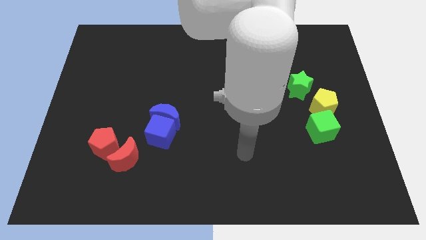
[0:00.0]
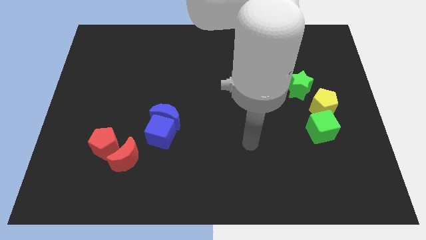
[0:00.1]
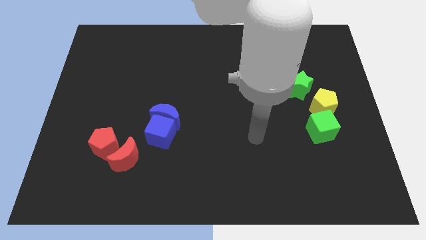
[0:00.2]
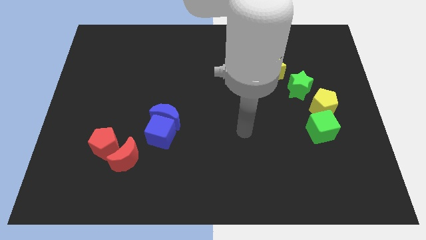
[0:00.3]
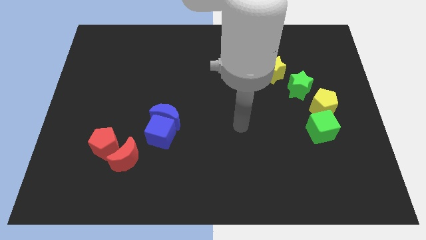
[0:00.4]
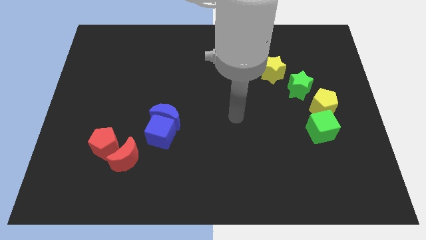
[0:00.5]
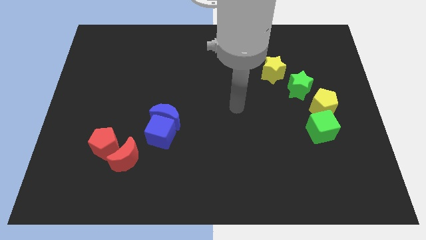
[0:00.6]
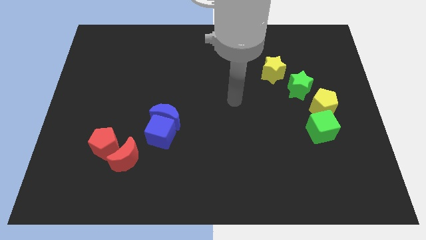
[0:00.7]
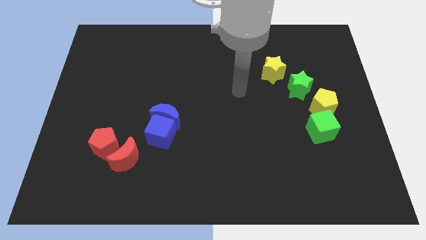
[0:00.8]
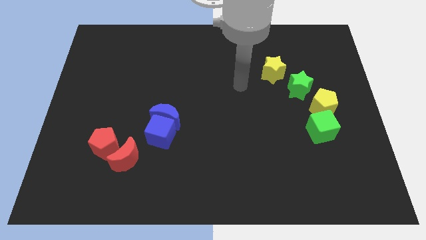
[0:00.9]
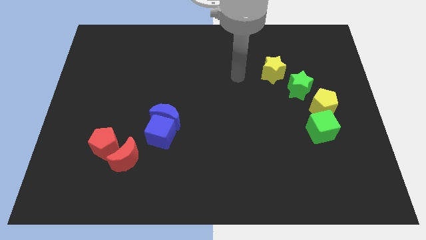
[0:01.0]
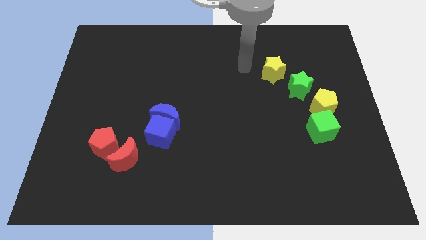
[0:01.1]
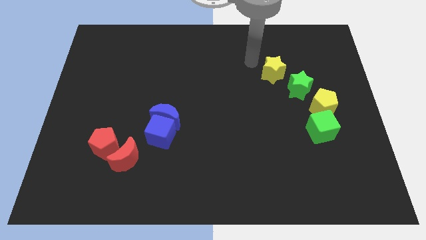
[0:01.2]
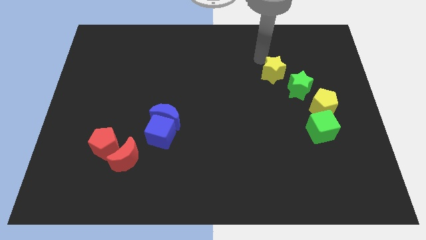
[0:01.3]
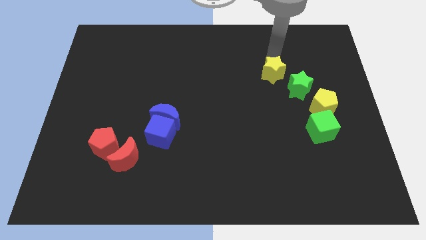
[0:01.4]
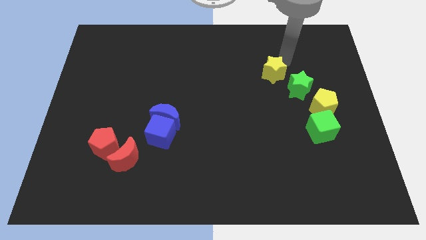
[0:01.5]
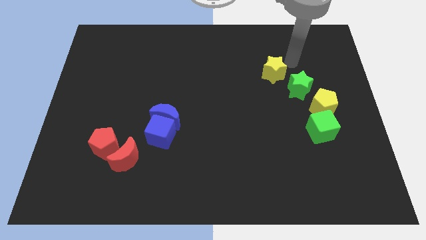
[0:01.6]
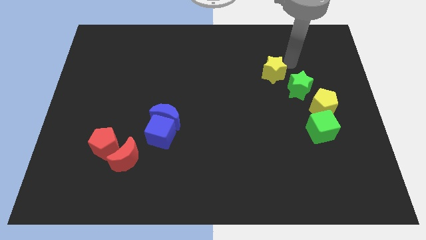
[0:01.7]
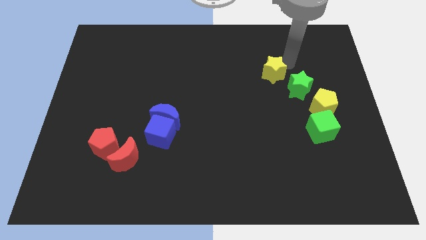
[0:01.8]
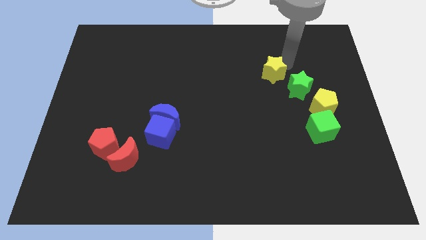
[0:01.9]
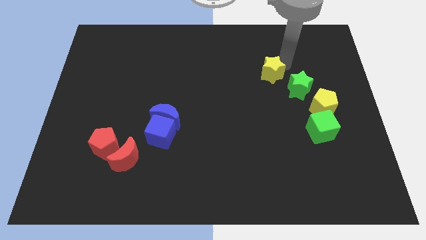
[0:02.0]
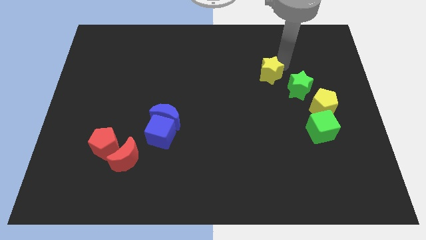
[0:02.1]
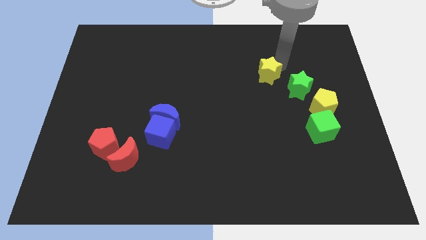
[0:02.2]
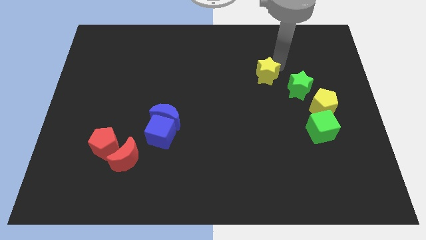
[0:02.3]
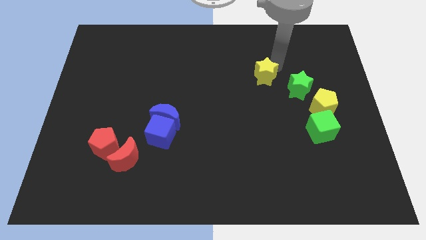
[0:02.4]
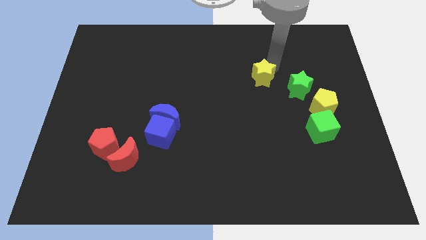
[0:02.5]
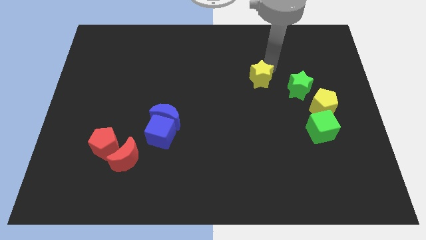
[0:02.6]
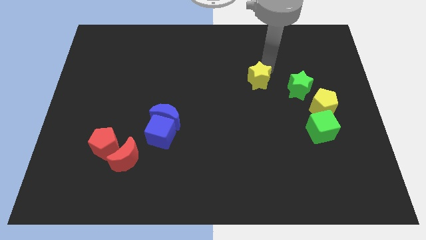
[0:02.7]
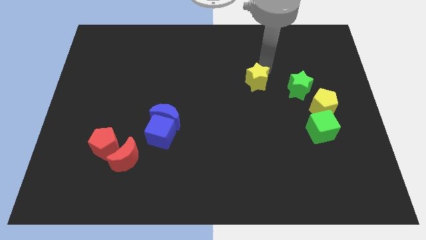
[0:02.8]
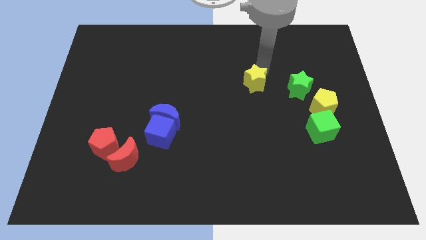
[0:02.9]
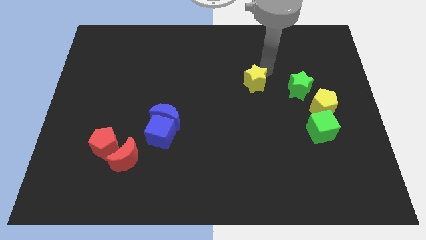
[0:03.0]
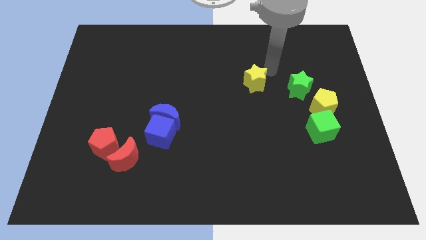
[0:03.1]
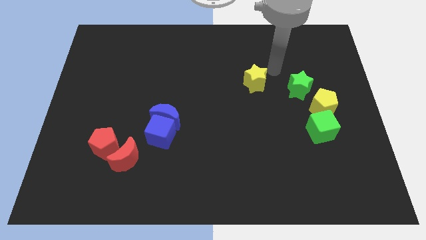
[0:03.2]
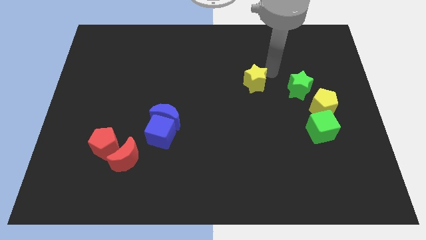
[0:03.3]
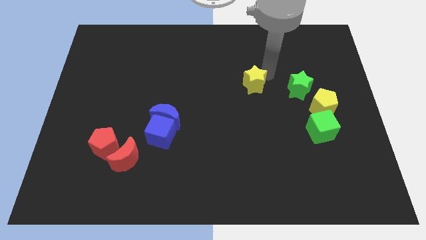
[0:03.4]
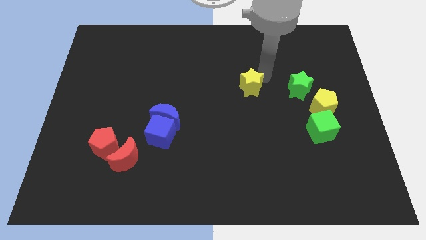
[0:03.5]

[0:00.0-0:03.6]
move the yellow star somewhat downwards and then to the left

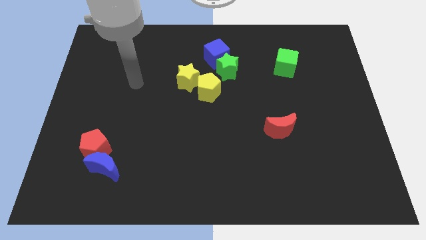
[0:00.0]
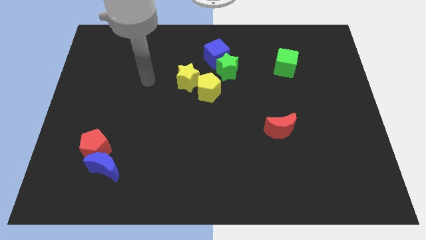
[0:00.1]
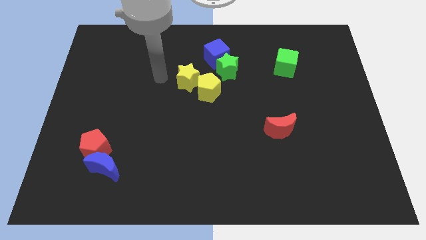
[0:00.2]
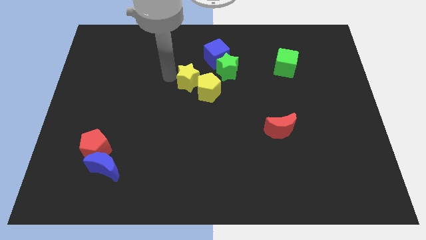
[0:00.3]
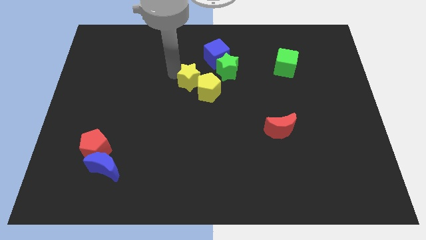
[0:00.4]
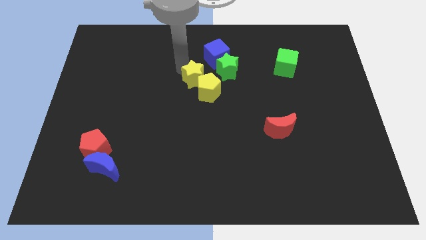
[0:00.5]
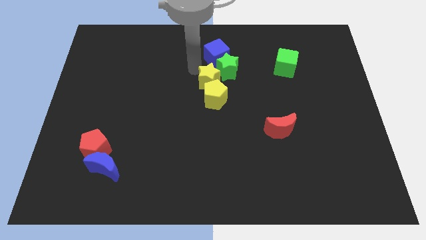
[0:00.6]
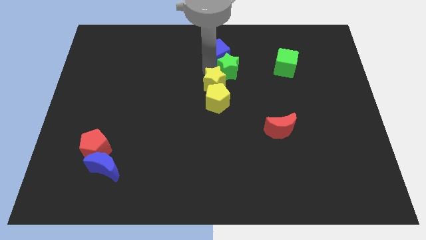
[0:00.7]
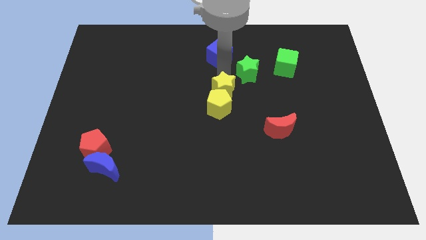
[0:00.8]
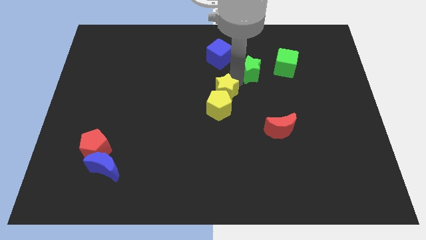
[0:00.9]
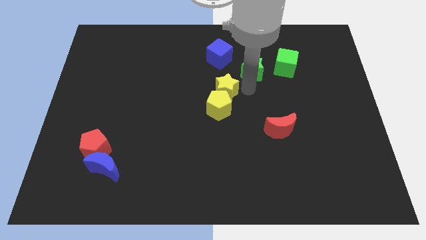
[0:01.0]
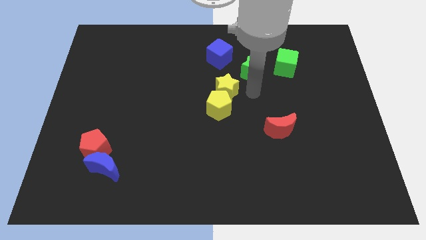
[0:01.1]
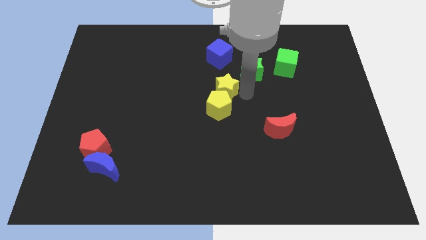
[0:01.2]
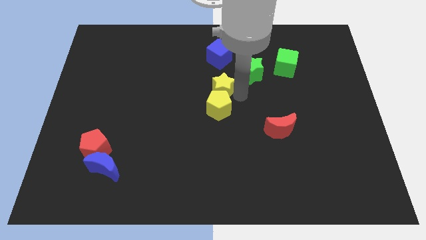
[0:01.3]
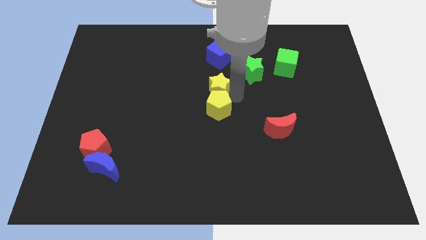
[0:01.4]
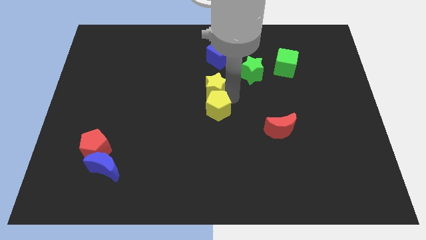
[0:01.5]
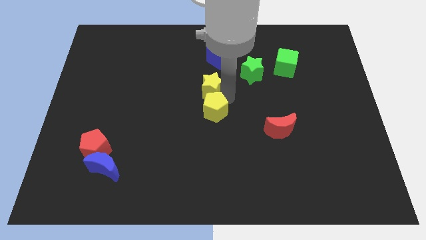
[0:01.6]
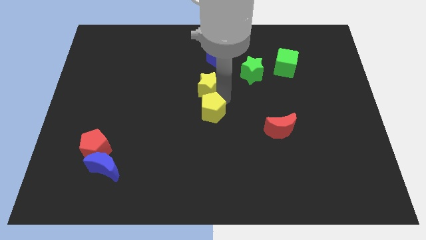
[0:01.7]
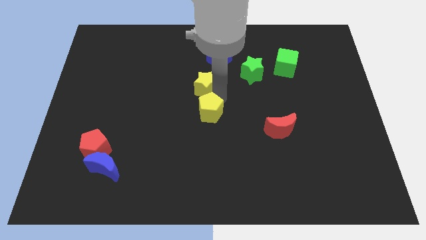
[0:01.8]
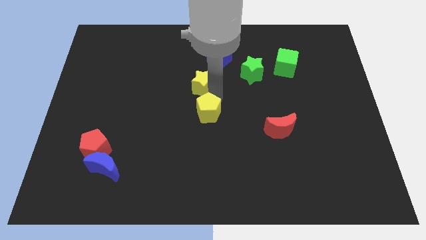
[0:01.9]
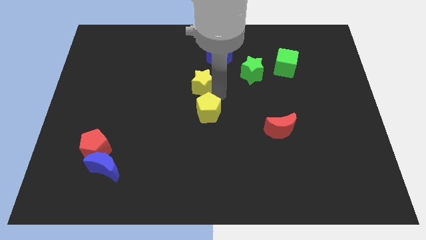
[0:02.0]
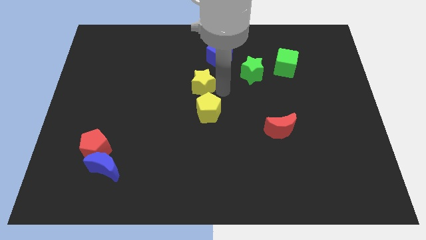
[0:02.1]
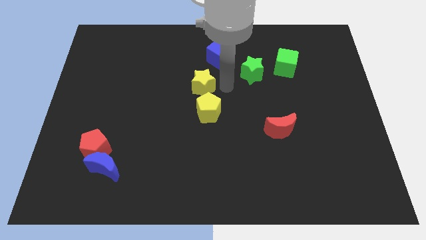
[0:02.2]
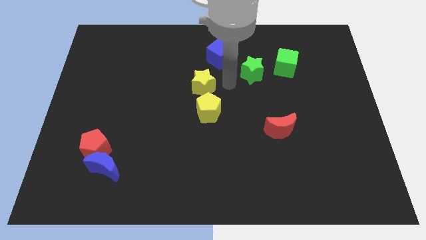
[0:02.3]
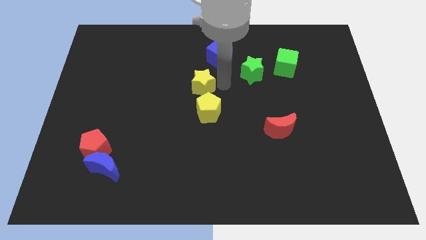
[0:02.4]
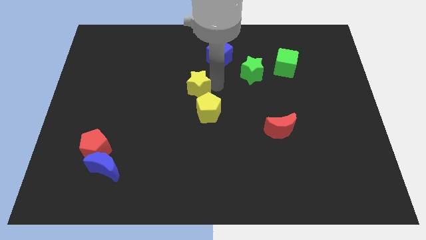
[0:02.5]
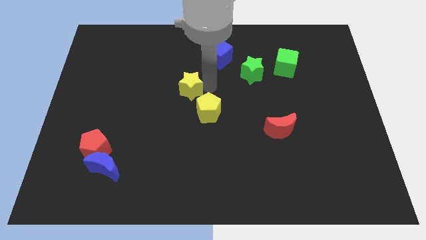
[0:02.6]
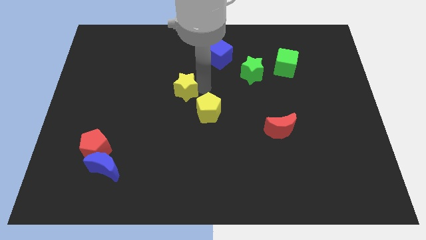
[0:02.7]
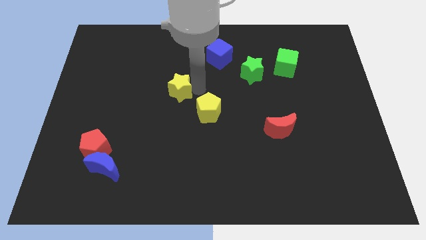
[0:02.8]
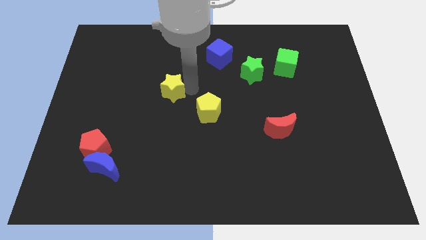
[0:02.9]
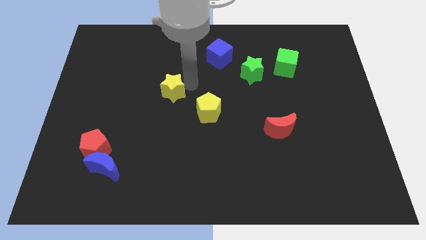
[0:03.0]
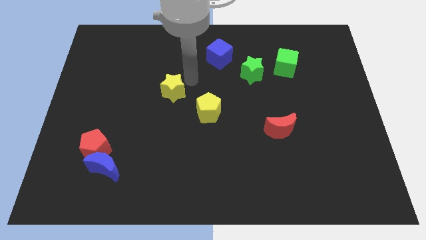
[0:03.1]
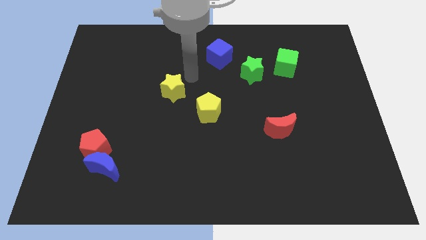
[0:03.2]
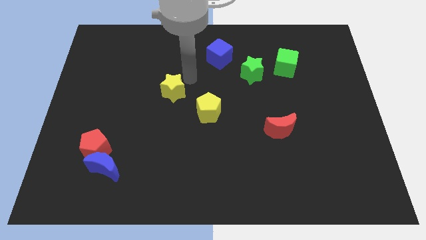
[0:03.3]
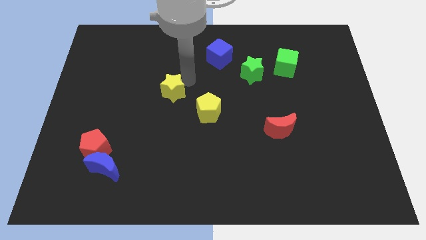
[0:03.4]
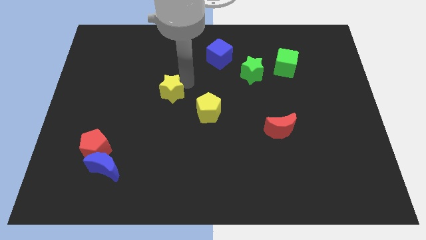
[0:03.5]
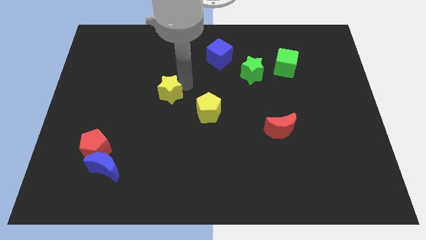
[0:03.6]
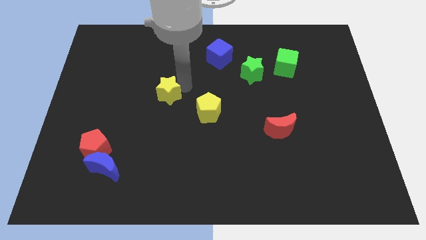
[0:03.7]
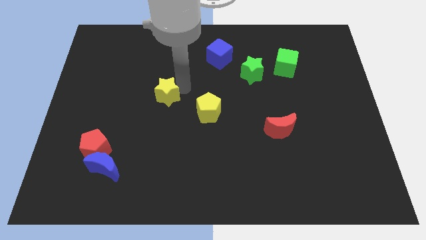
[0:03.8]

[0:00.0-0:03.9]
slightly move the yellow star downwards and then to the left

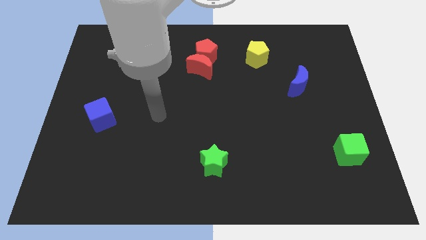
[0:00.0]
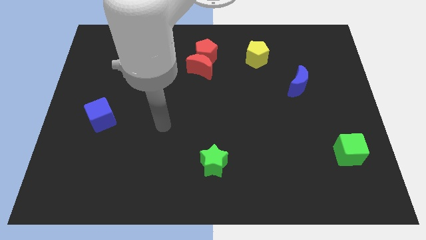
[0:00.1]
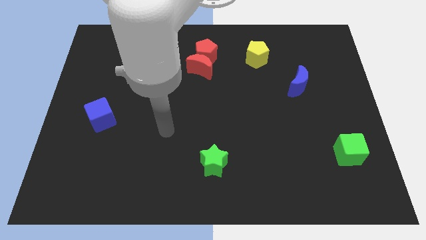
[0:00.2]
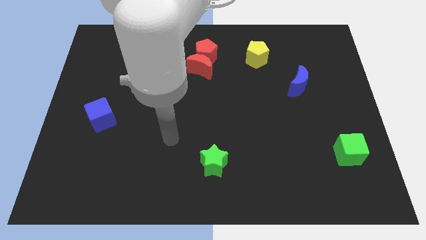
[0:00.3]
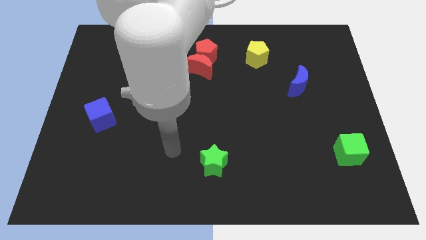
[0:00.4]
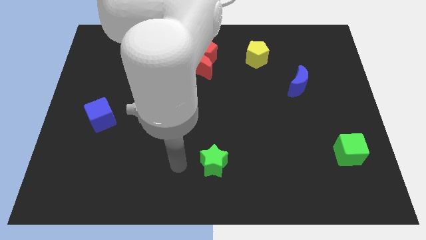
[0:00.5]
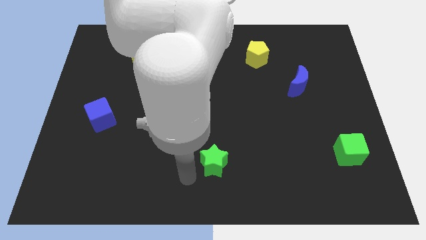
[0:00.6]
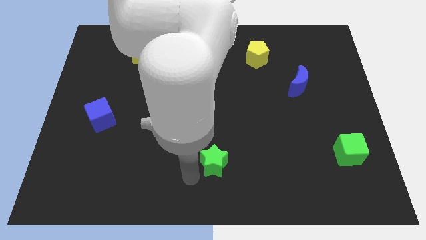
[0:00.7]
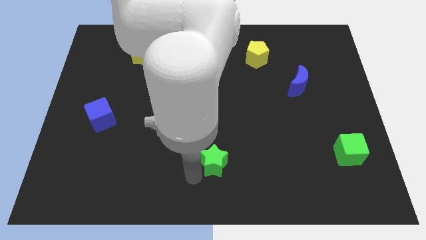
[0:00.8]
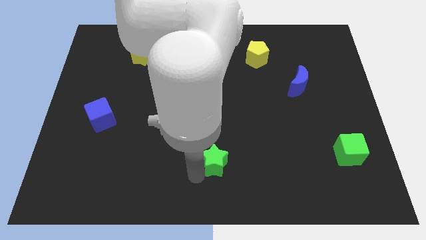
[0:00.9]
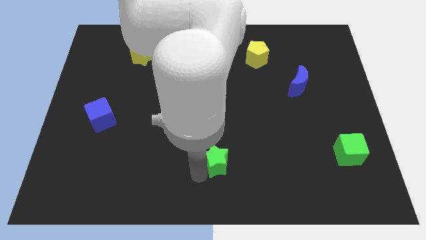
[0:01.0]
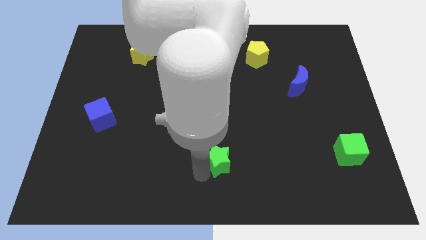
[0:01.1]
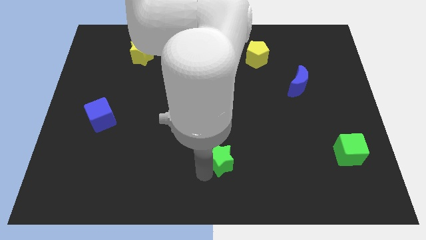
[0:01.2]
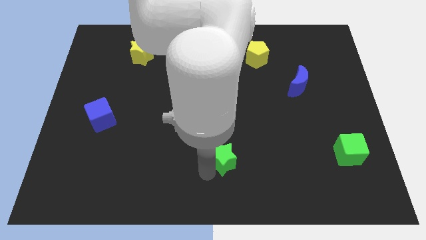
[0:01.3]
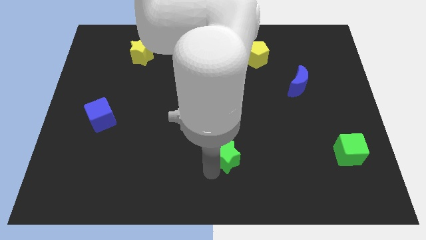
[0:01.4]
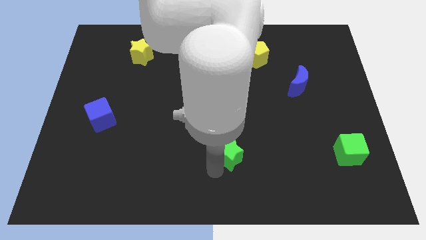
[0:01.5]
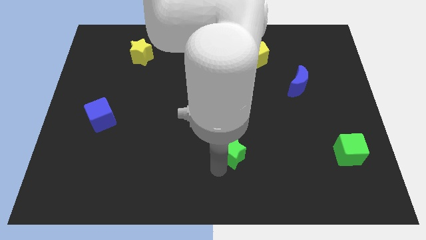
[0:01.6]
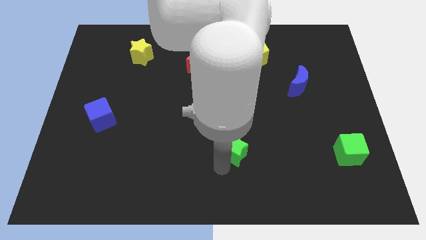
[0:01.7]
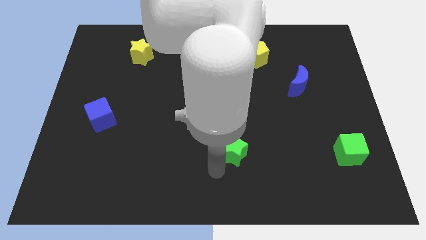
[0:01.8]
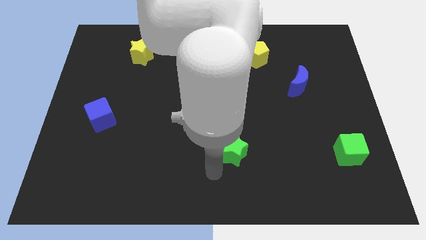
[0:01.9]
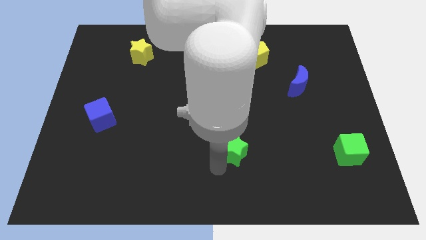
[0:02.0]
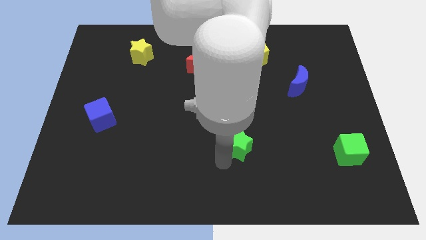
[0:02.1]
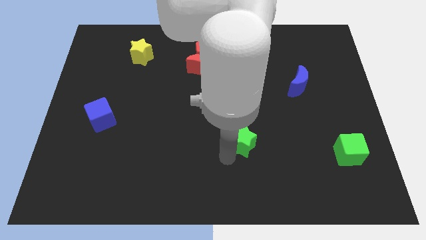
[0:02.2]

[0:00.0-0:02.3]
slide the green star slightly up and to the right diagonally
